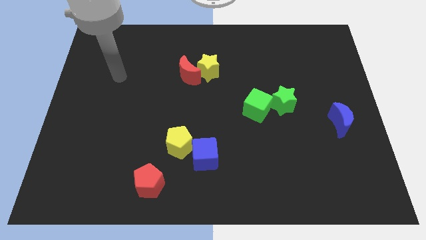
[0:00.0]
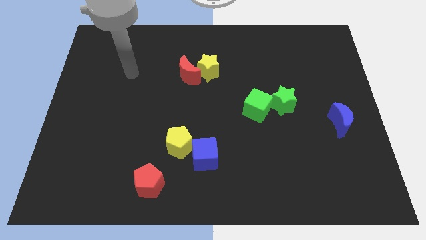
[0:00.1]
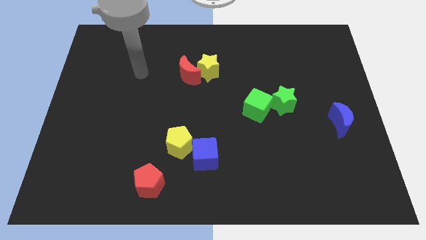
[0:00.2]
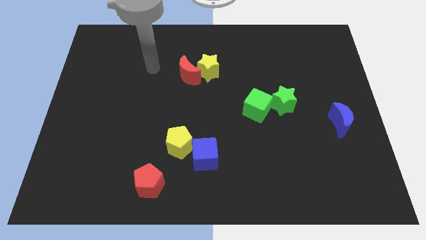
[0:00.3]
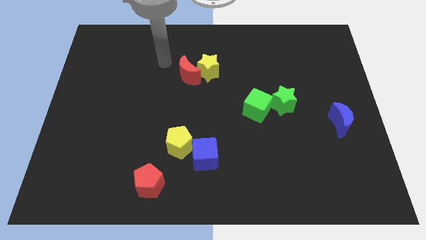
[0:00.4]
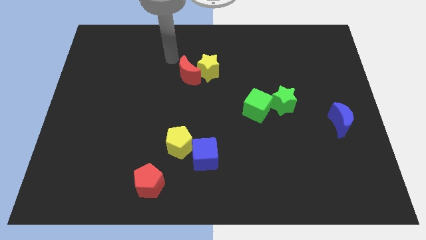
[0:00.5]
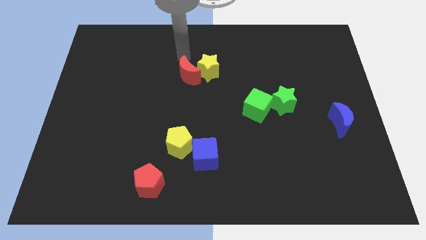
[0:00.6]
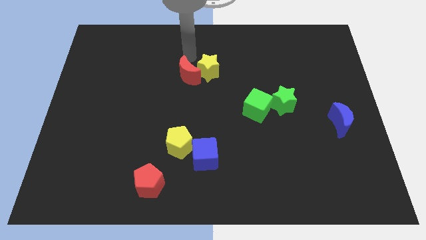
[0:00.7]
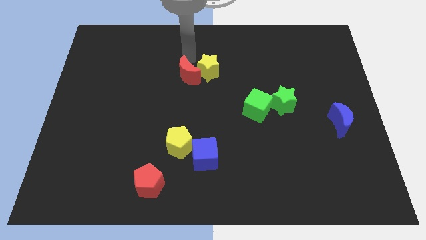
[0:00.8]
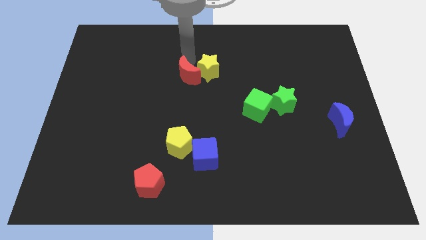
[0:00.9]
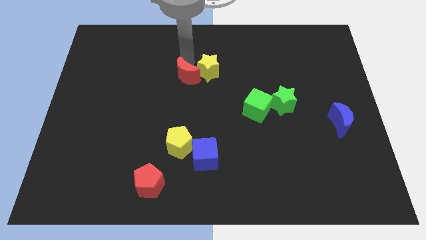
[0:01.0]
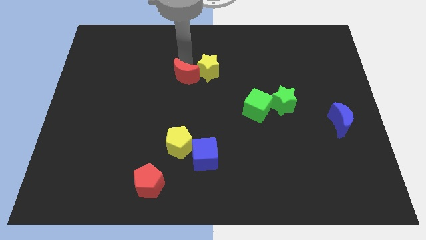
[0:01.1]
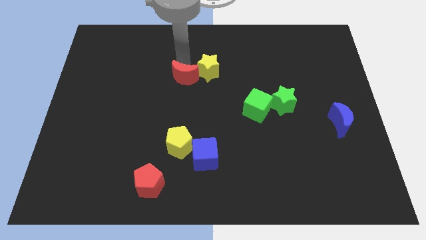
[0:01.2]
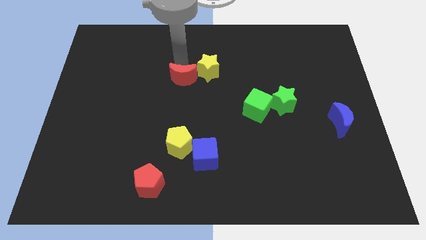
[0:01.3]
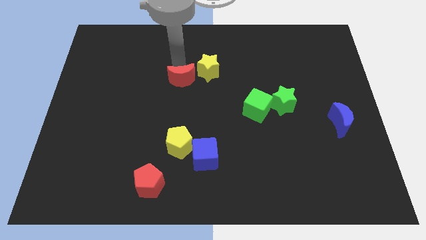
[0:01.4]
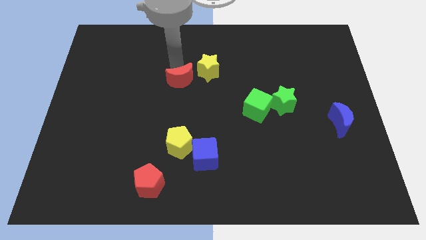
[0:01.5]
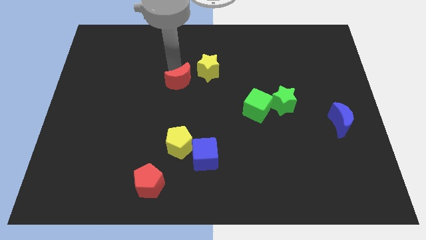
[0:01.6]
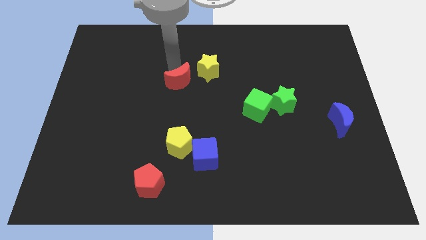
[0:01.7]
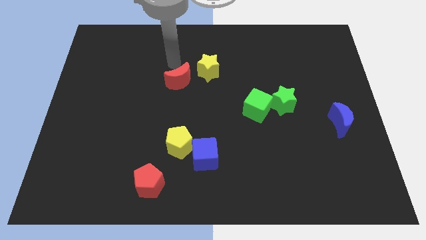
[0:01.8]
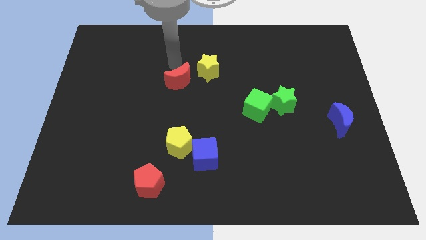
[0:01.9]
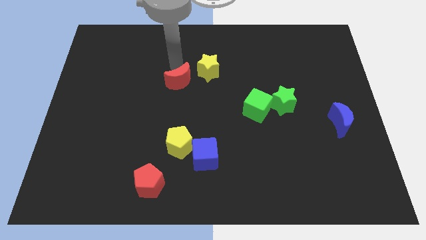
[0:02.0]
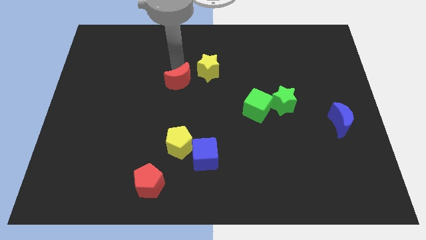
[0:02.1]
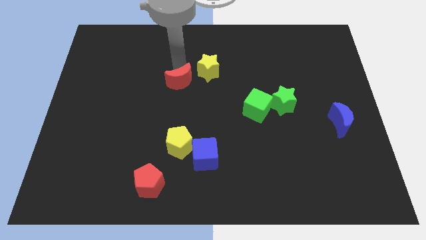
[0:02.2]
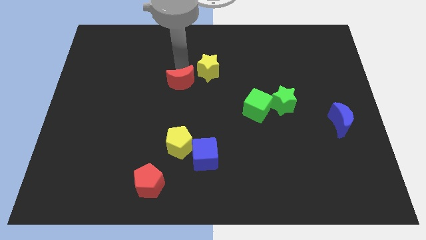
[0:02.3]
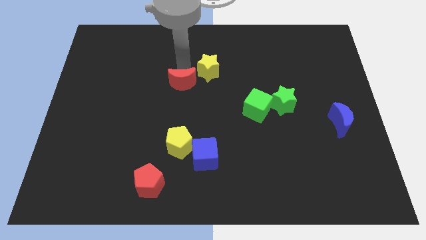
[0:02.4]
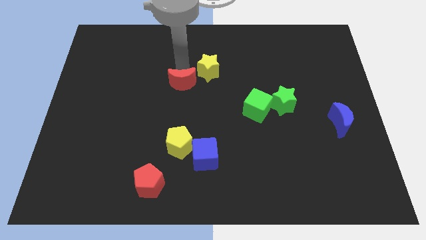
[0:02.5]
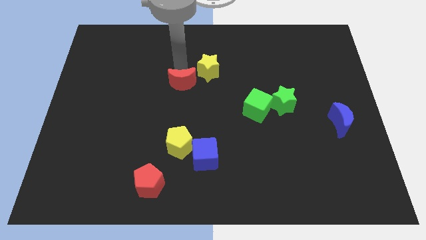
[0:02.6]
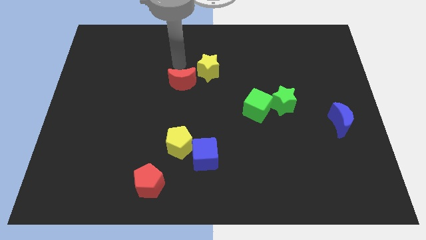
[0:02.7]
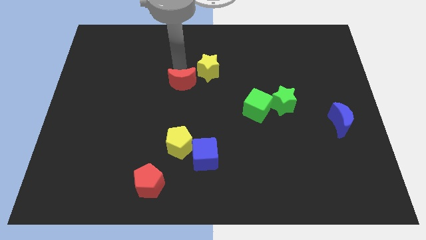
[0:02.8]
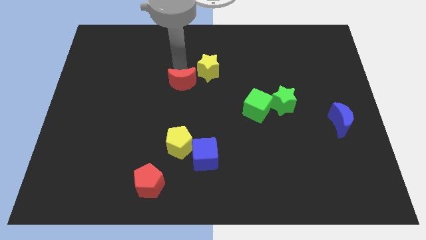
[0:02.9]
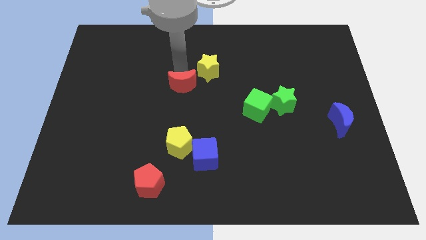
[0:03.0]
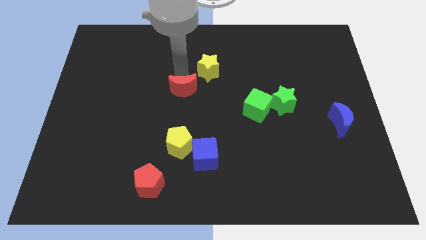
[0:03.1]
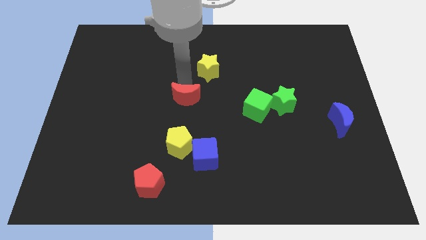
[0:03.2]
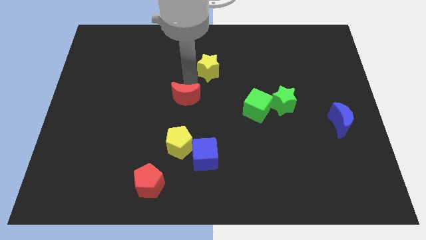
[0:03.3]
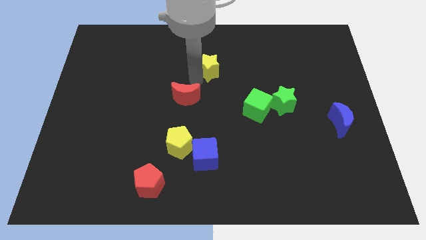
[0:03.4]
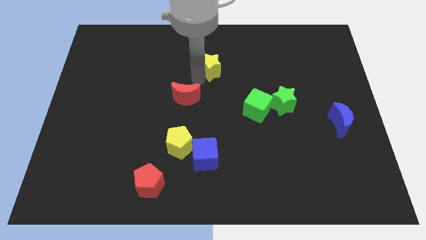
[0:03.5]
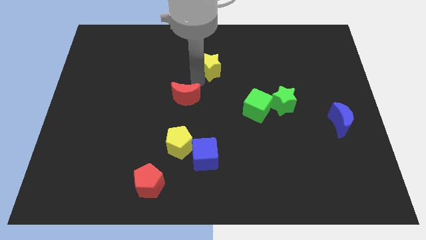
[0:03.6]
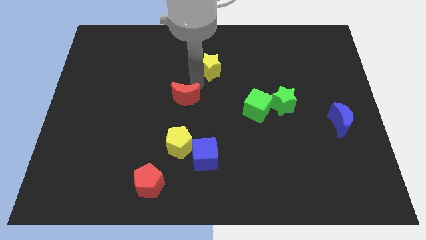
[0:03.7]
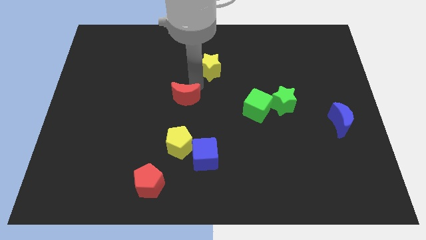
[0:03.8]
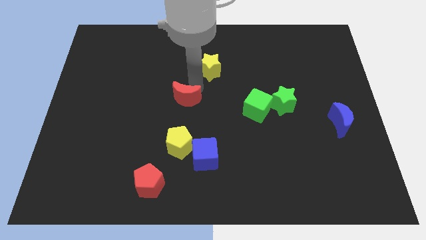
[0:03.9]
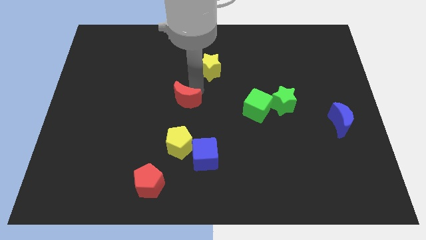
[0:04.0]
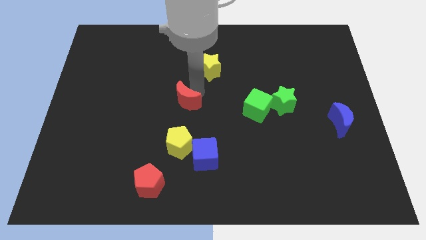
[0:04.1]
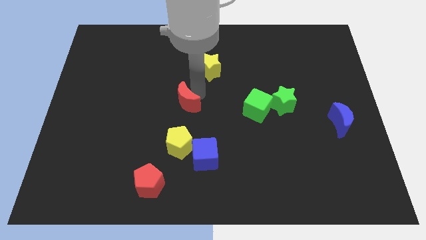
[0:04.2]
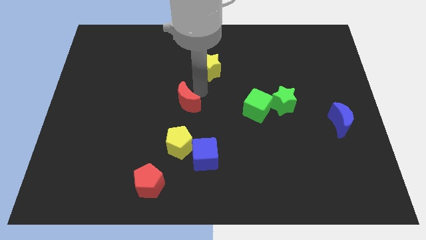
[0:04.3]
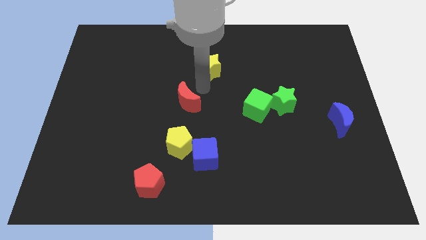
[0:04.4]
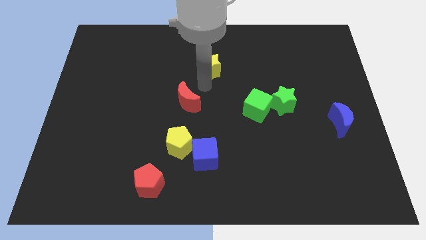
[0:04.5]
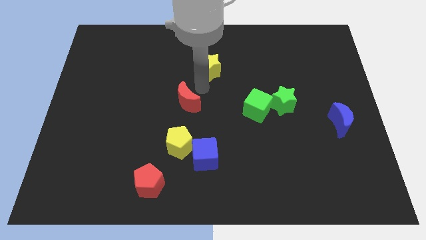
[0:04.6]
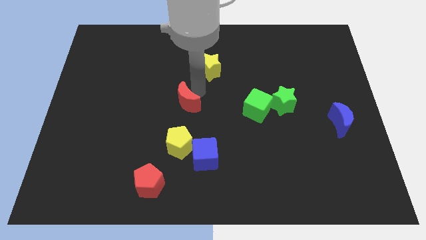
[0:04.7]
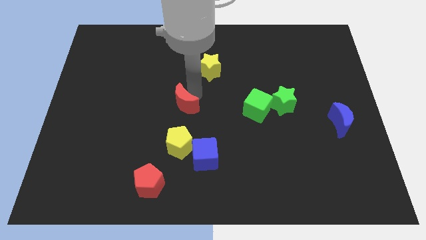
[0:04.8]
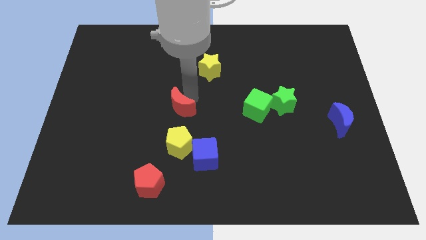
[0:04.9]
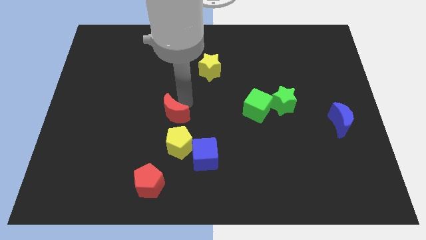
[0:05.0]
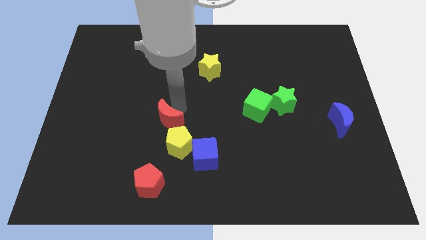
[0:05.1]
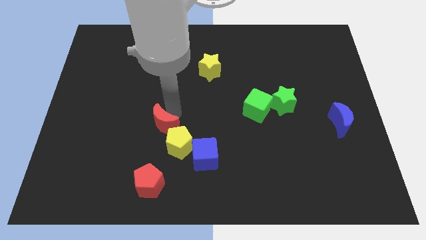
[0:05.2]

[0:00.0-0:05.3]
push the red moon to the top side of the red pentagon

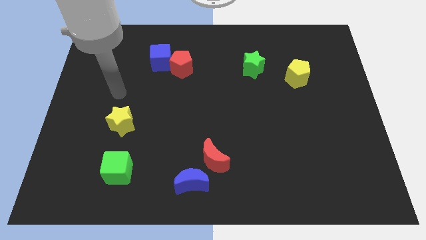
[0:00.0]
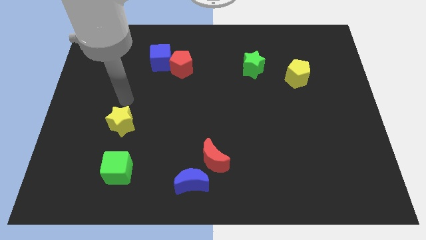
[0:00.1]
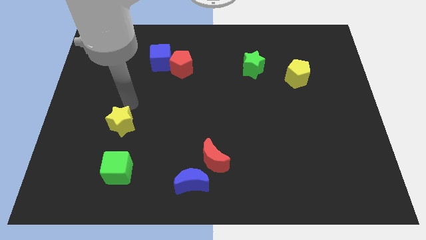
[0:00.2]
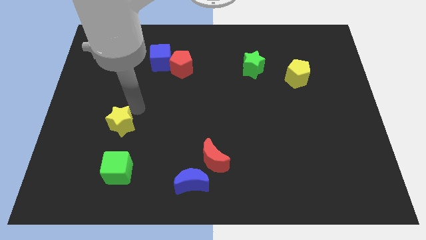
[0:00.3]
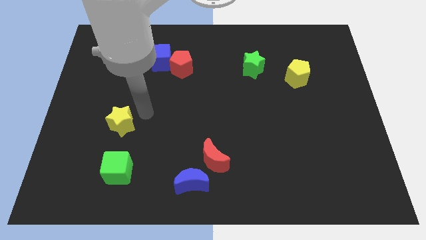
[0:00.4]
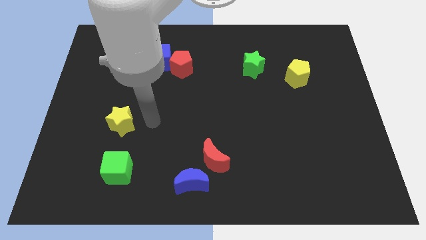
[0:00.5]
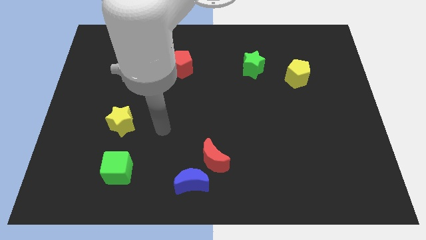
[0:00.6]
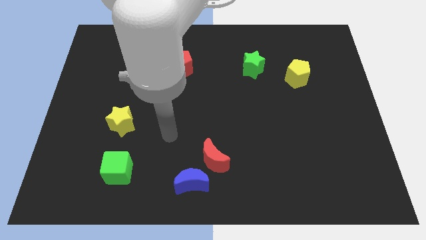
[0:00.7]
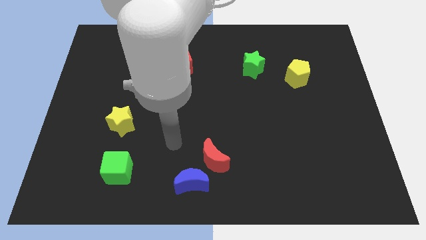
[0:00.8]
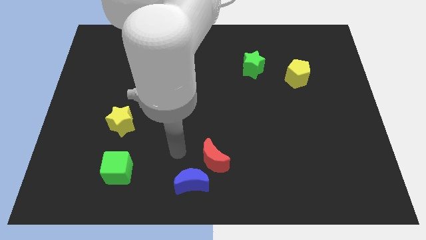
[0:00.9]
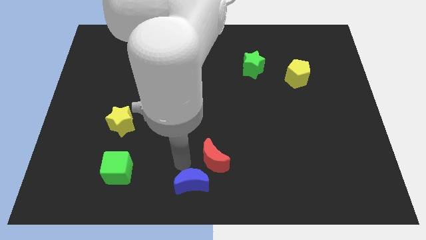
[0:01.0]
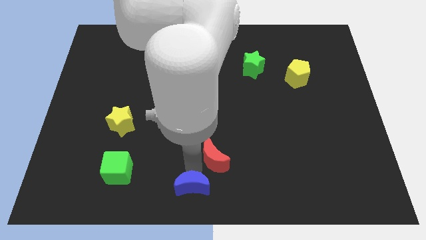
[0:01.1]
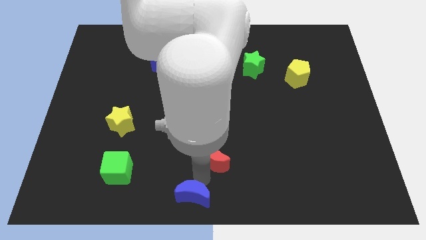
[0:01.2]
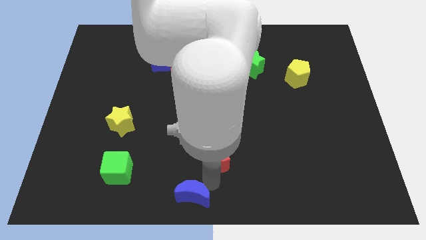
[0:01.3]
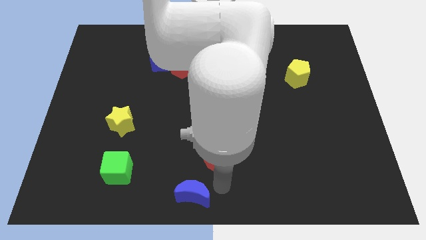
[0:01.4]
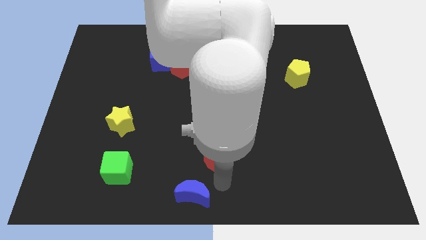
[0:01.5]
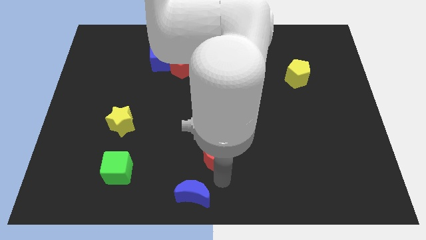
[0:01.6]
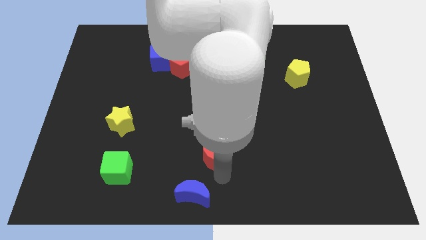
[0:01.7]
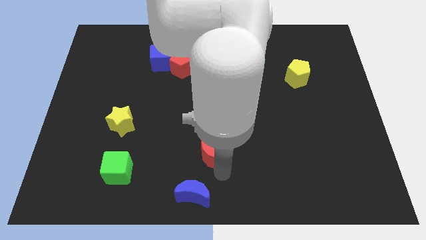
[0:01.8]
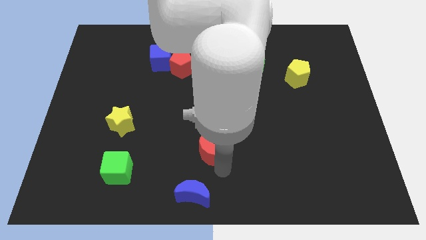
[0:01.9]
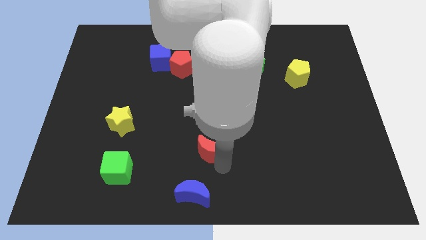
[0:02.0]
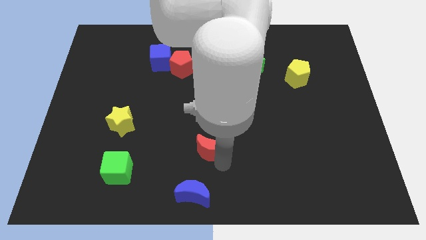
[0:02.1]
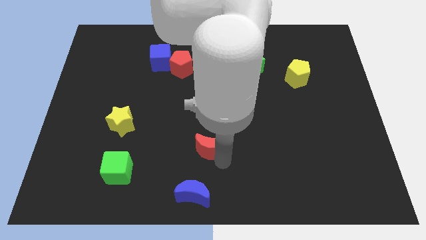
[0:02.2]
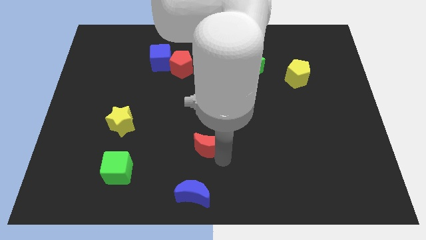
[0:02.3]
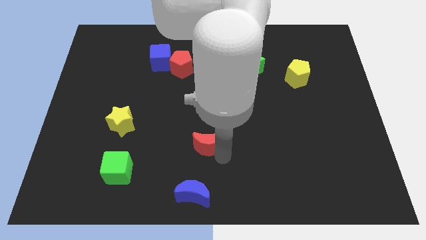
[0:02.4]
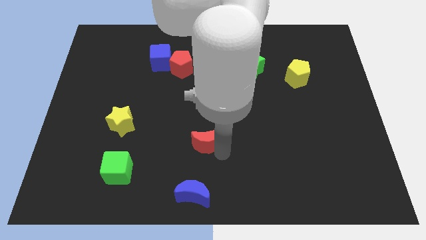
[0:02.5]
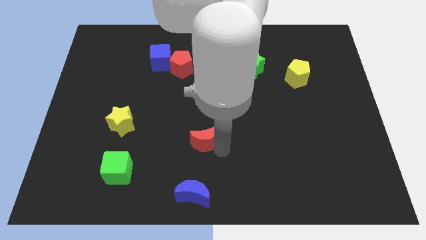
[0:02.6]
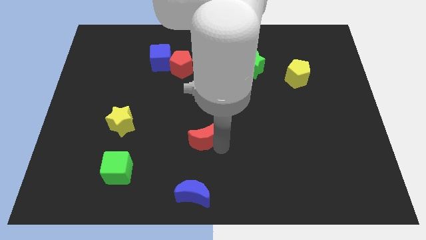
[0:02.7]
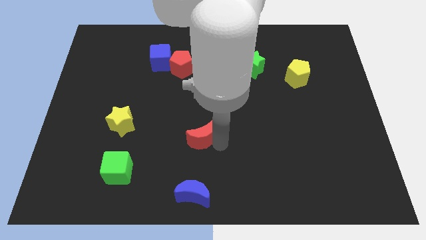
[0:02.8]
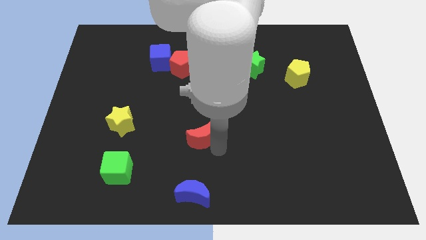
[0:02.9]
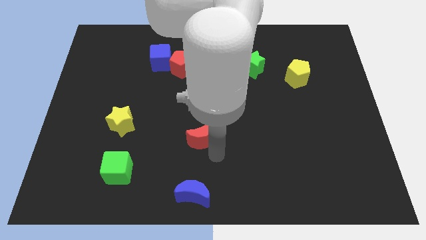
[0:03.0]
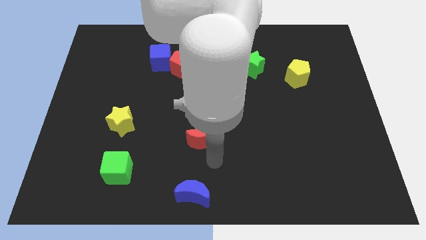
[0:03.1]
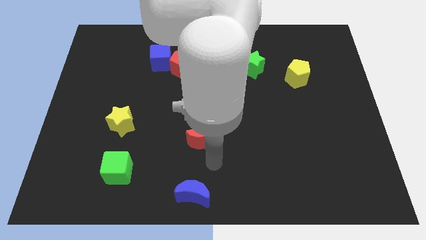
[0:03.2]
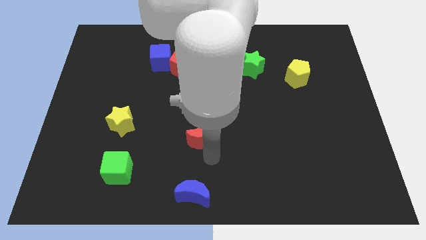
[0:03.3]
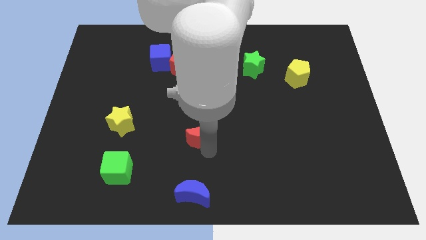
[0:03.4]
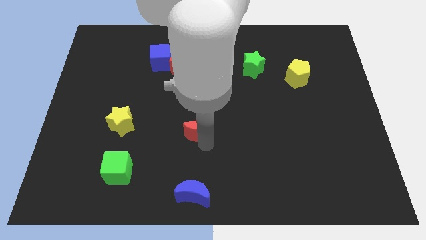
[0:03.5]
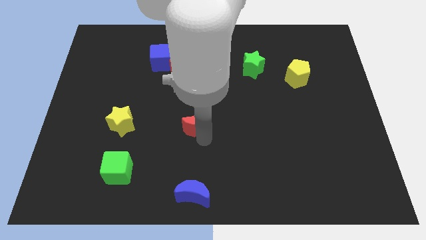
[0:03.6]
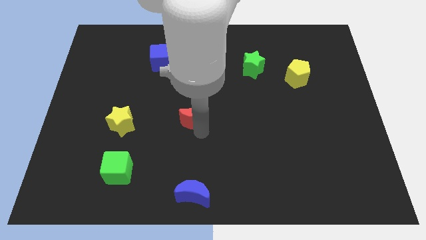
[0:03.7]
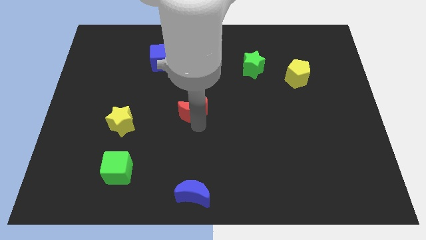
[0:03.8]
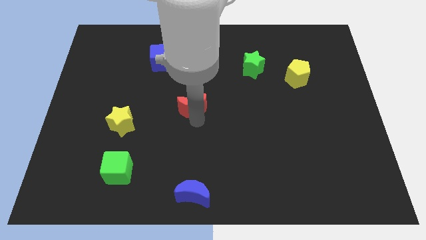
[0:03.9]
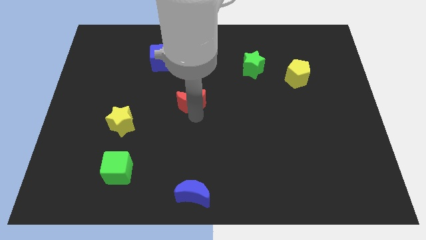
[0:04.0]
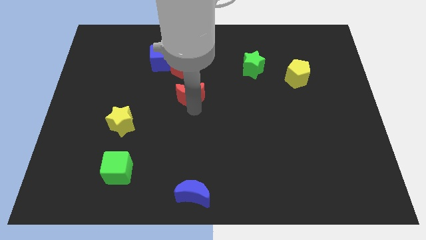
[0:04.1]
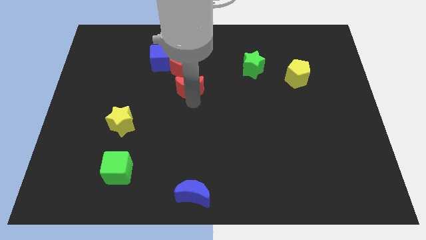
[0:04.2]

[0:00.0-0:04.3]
move the red moon to the bottom right side of the blue cube
